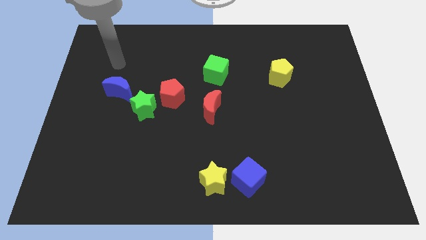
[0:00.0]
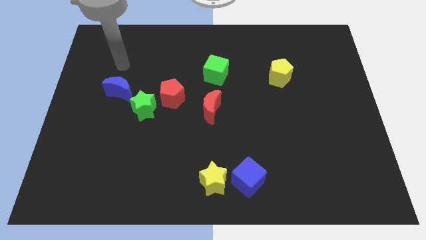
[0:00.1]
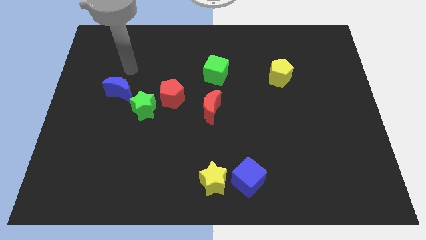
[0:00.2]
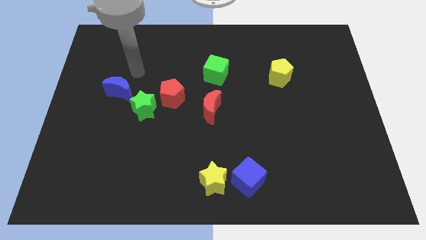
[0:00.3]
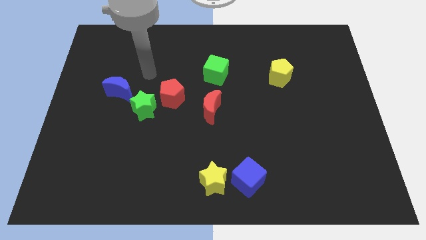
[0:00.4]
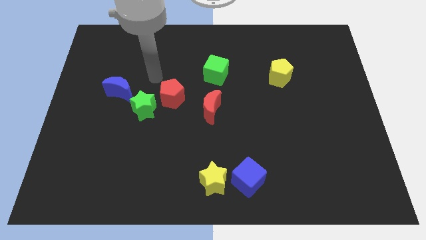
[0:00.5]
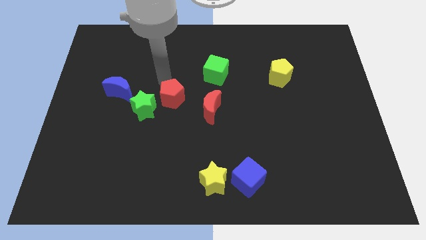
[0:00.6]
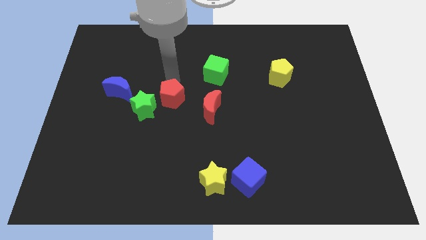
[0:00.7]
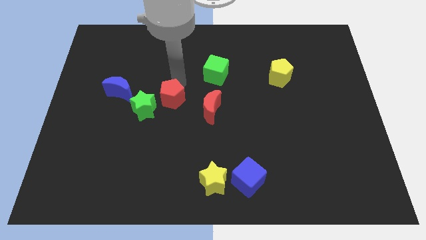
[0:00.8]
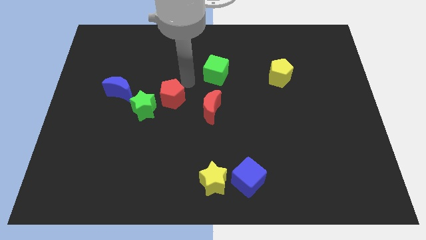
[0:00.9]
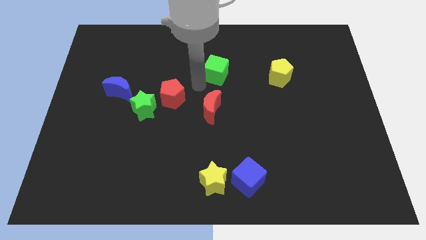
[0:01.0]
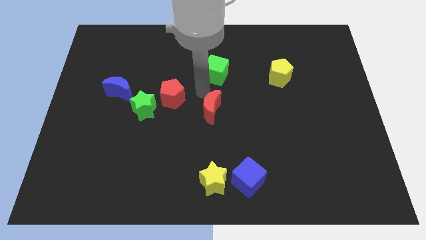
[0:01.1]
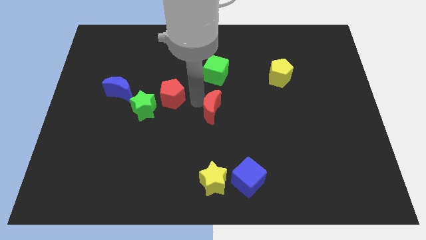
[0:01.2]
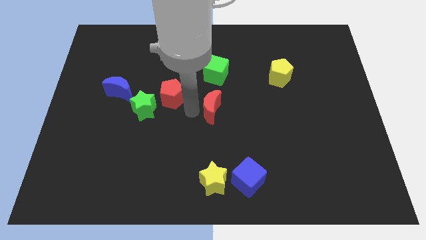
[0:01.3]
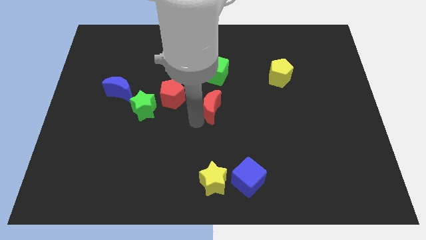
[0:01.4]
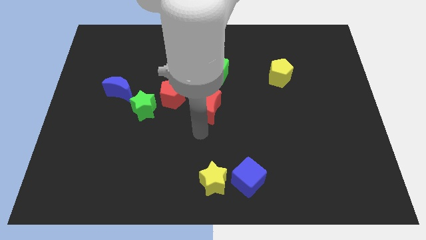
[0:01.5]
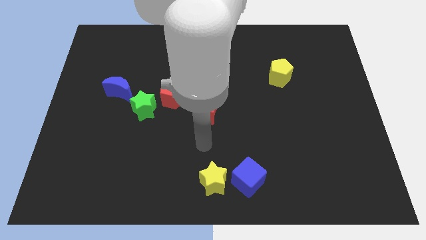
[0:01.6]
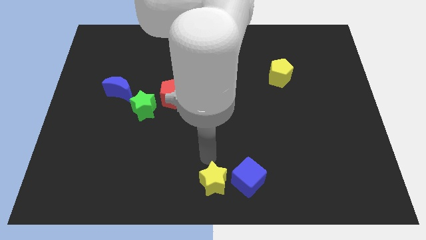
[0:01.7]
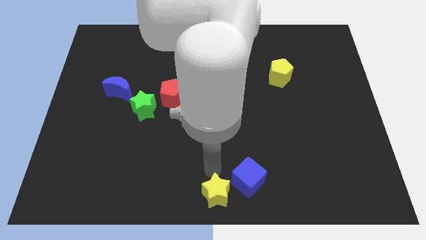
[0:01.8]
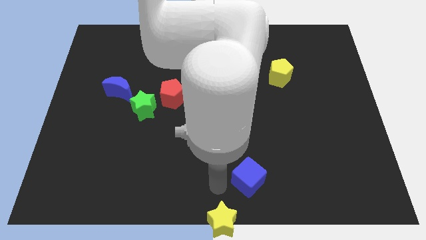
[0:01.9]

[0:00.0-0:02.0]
move the blue cube away from the yellow star

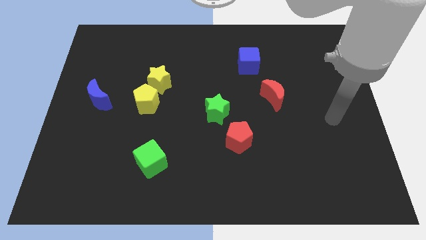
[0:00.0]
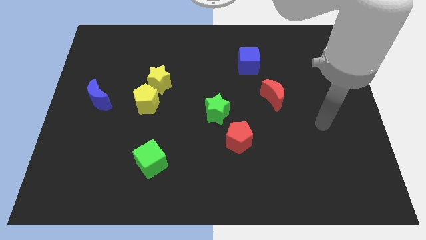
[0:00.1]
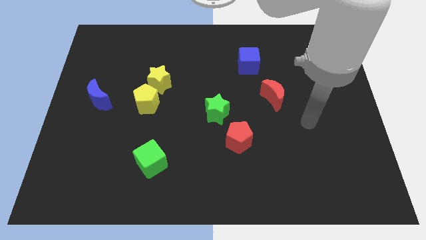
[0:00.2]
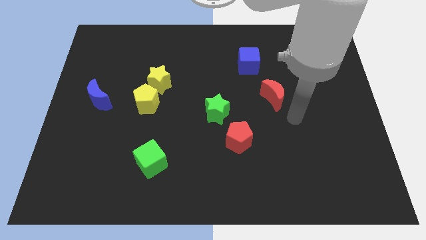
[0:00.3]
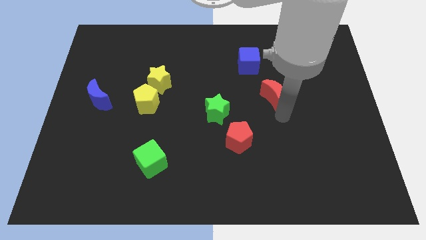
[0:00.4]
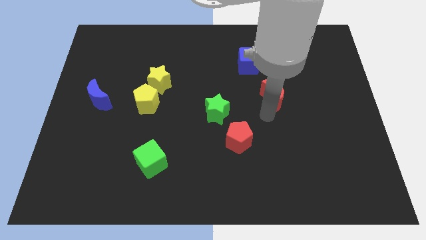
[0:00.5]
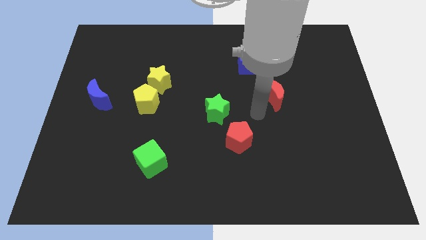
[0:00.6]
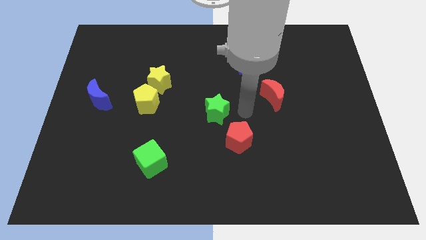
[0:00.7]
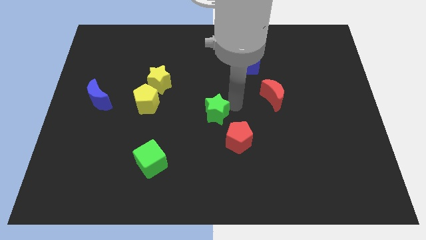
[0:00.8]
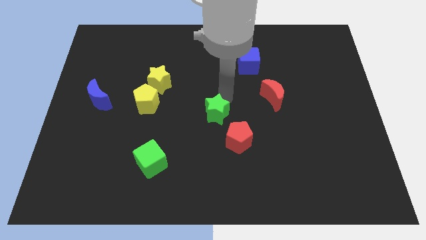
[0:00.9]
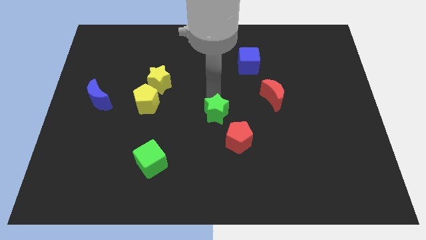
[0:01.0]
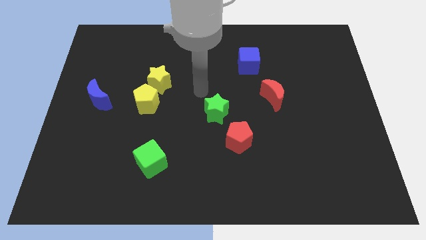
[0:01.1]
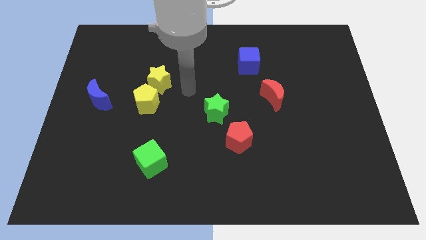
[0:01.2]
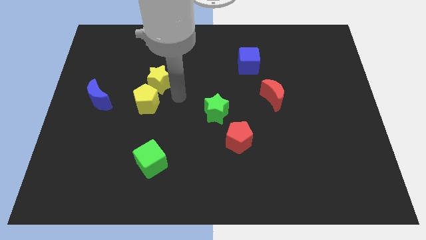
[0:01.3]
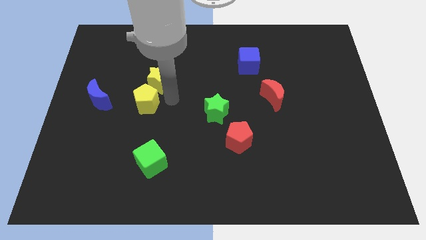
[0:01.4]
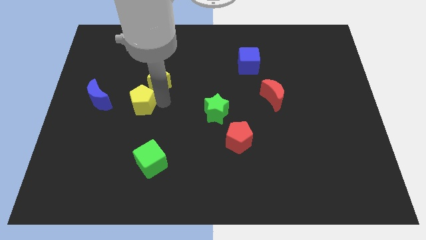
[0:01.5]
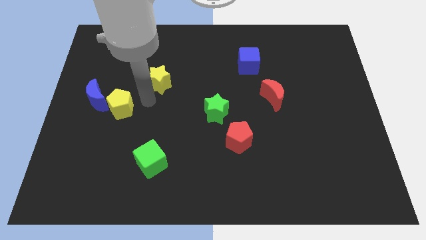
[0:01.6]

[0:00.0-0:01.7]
separate the yellow star from the yellow pentagon

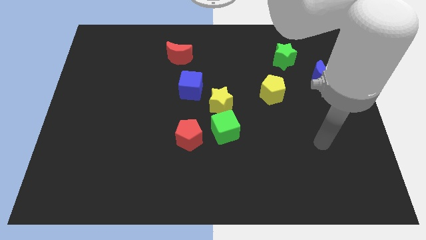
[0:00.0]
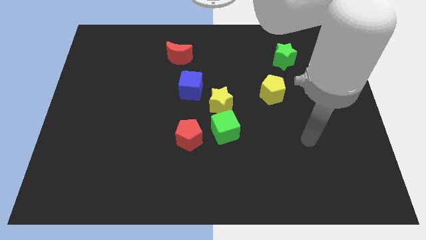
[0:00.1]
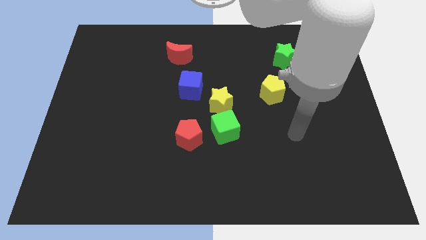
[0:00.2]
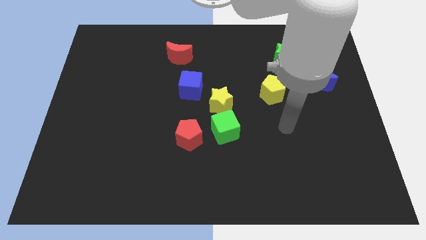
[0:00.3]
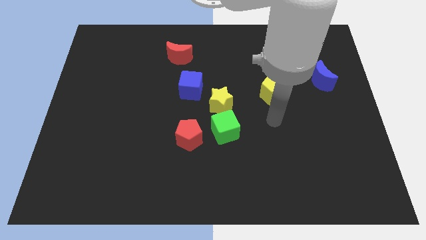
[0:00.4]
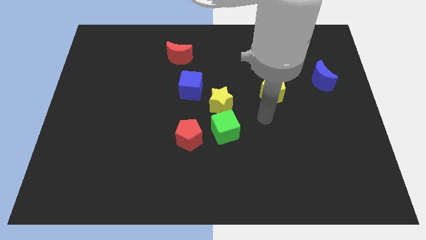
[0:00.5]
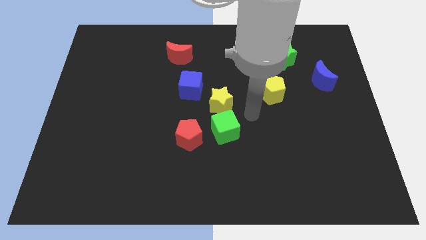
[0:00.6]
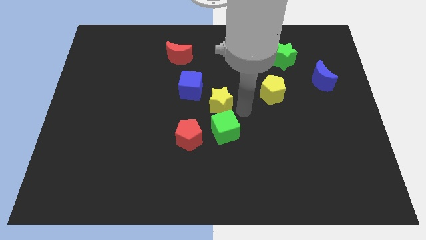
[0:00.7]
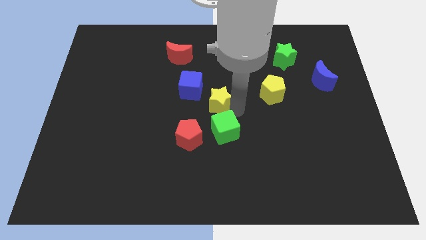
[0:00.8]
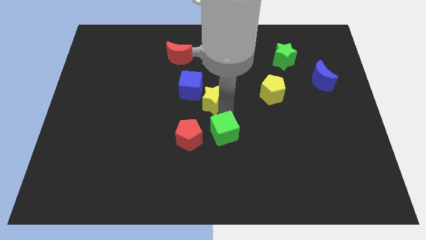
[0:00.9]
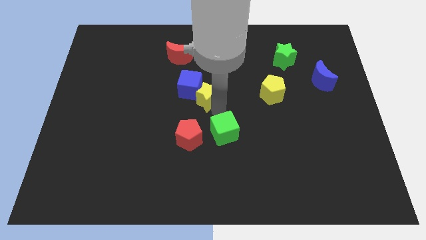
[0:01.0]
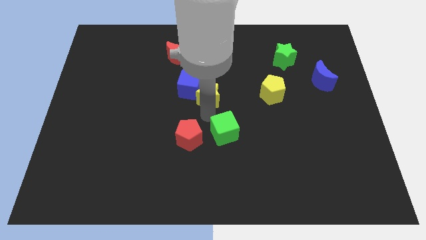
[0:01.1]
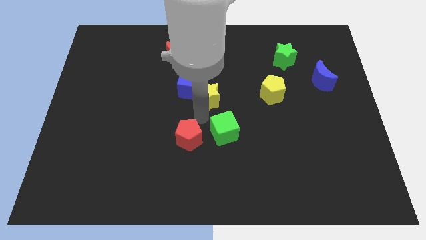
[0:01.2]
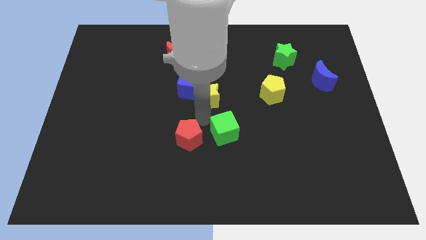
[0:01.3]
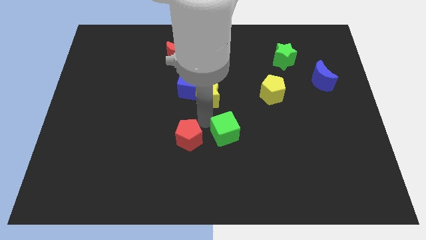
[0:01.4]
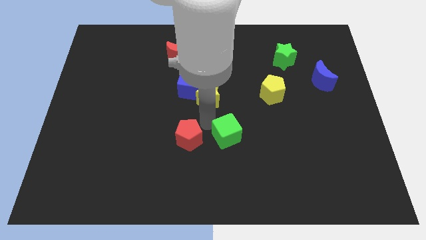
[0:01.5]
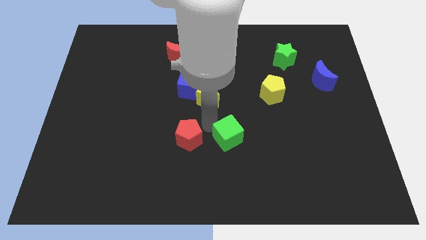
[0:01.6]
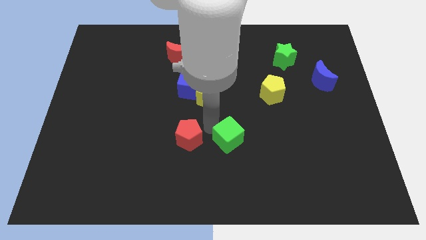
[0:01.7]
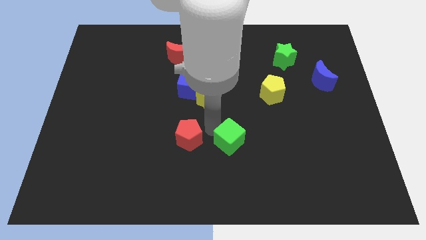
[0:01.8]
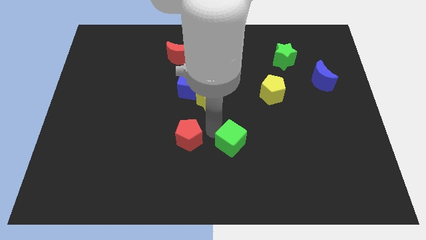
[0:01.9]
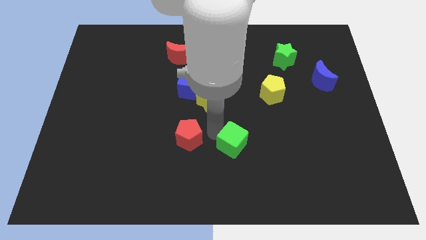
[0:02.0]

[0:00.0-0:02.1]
pull the green cube apart from the yellow star and red pentagon

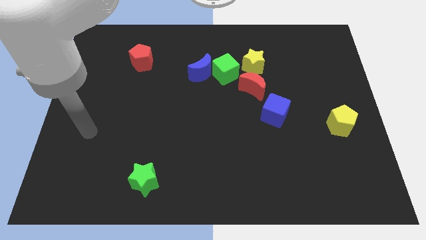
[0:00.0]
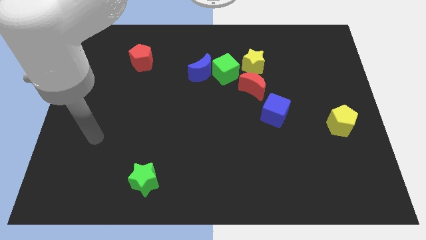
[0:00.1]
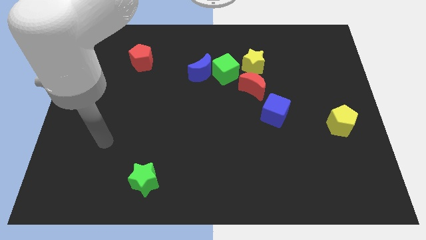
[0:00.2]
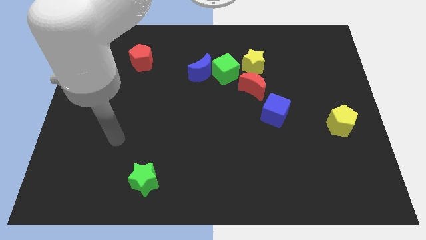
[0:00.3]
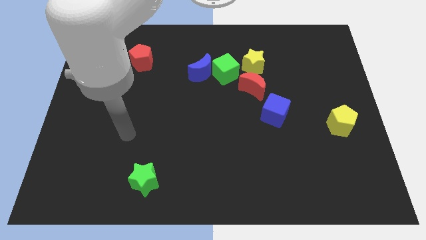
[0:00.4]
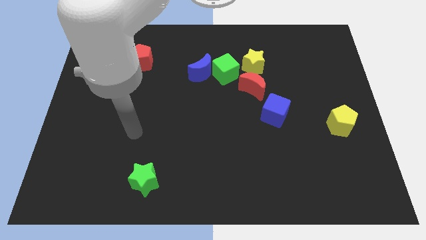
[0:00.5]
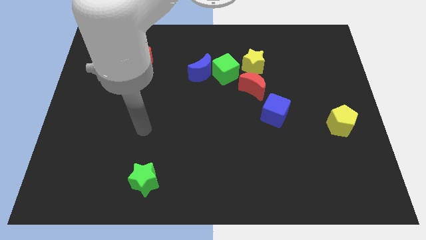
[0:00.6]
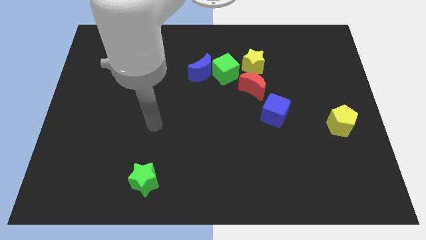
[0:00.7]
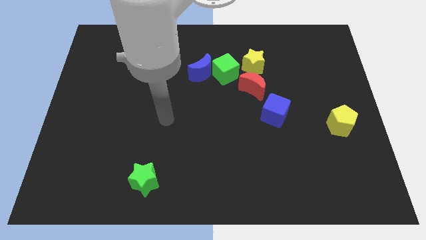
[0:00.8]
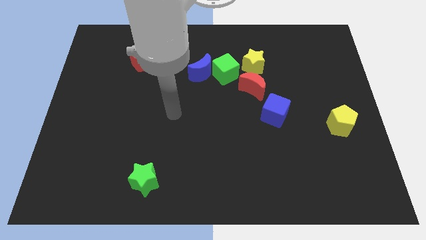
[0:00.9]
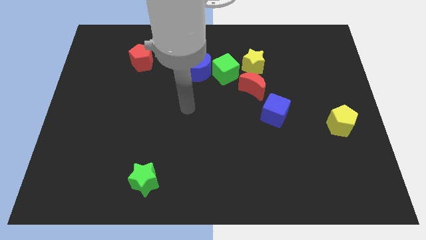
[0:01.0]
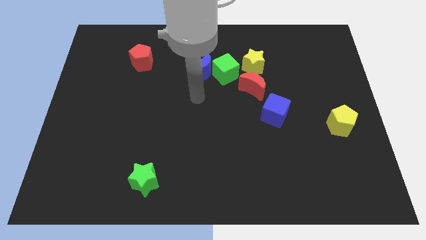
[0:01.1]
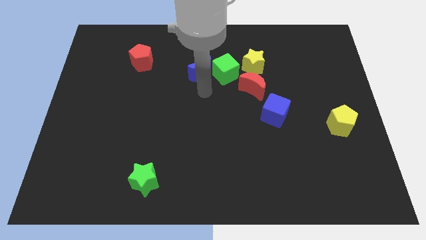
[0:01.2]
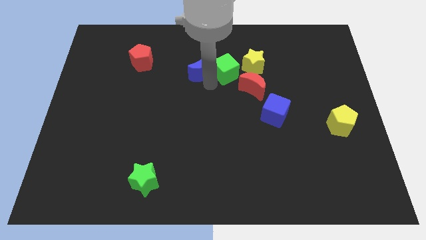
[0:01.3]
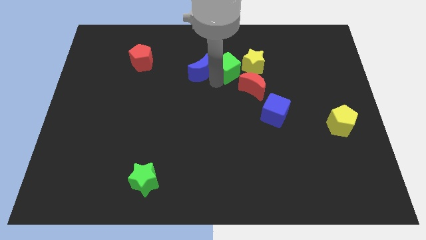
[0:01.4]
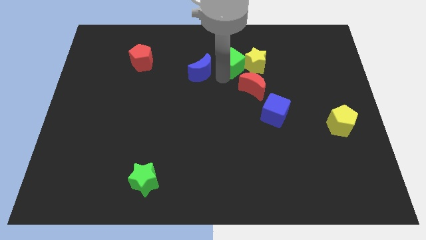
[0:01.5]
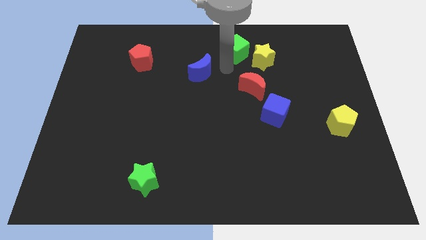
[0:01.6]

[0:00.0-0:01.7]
pull the blue moon apart from the green cube

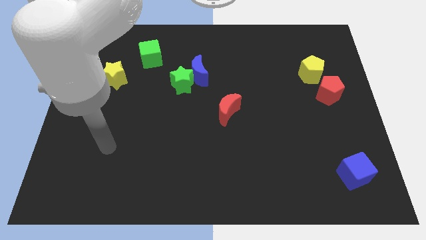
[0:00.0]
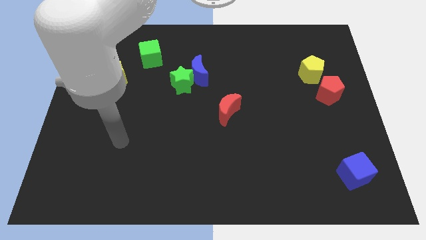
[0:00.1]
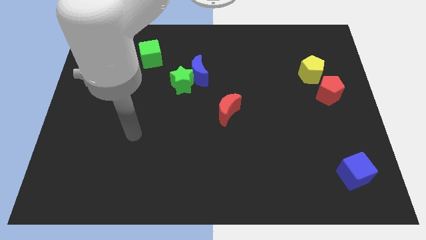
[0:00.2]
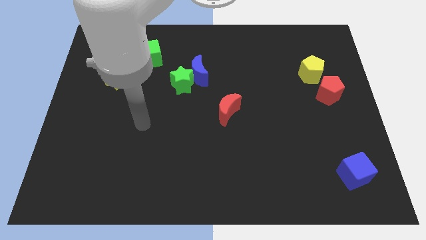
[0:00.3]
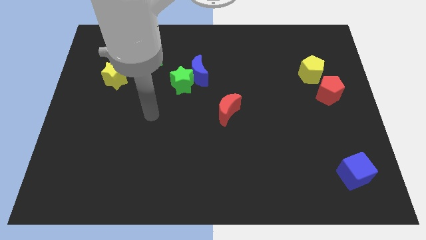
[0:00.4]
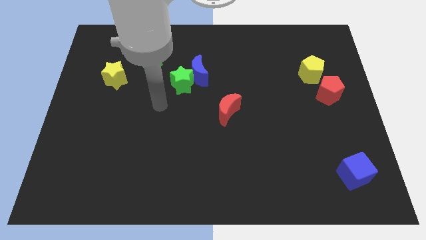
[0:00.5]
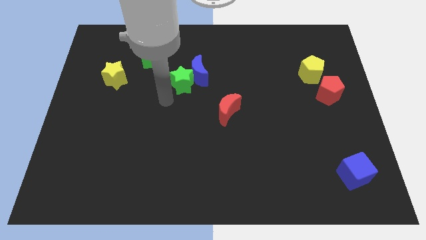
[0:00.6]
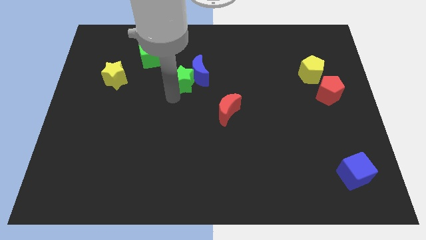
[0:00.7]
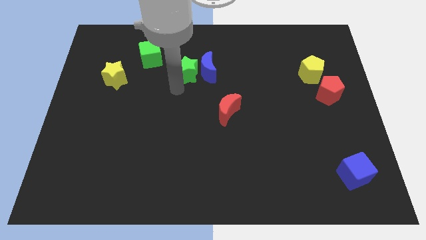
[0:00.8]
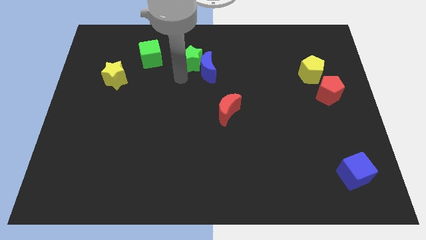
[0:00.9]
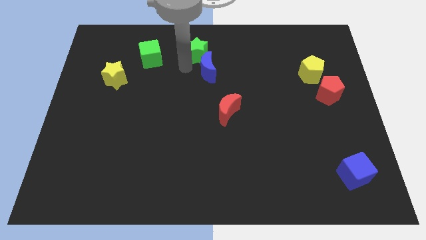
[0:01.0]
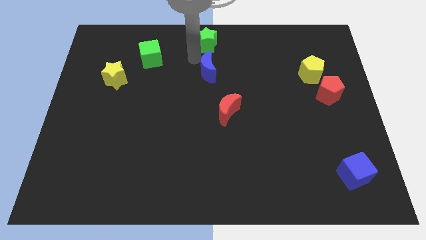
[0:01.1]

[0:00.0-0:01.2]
pull the blue moon apart from the green star

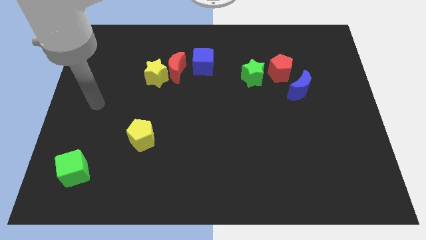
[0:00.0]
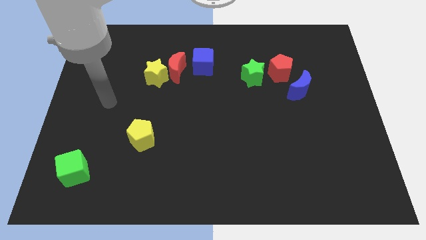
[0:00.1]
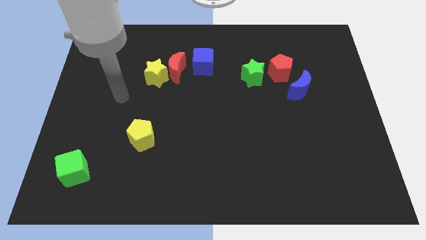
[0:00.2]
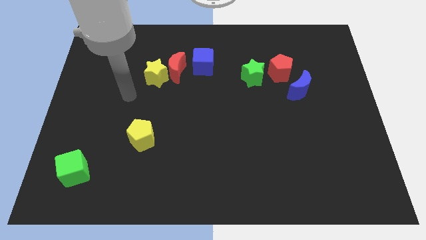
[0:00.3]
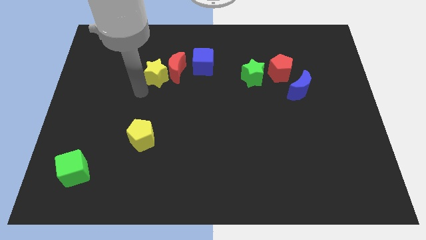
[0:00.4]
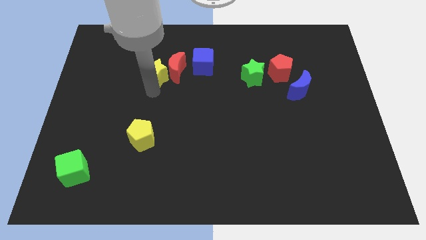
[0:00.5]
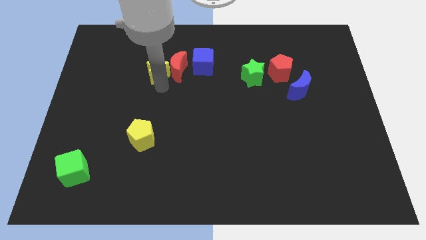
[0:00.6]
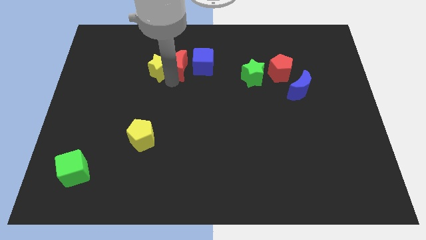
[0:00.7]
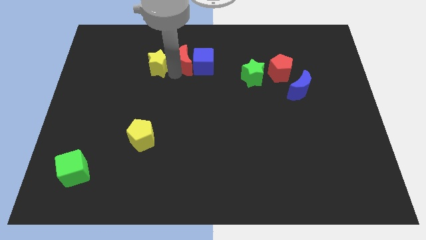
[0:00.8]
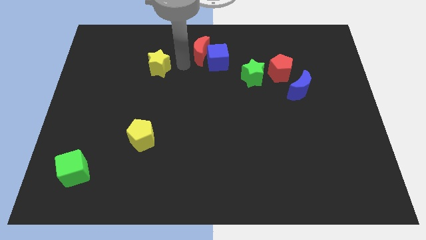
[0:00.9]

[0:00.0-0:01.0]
move the yellow star away from the red moon
